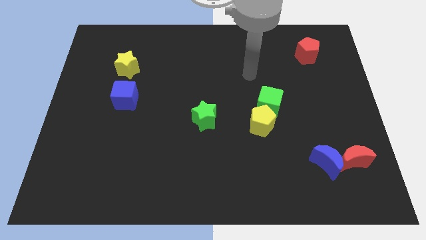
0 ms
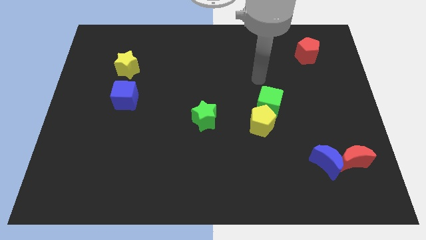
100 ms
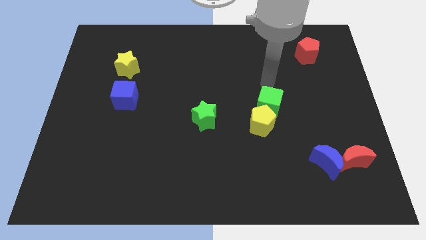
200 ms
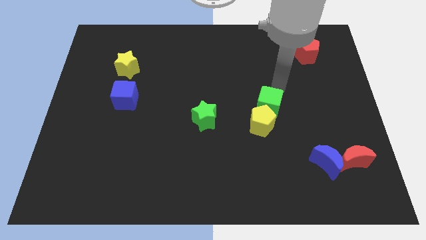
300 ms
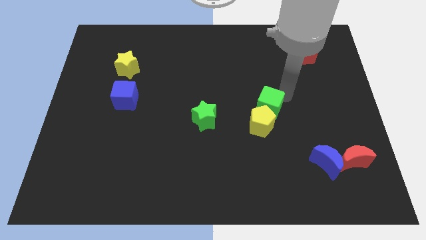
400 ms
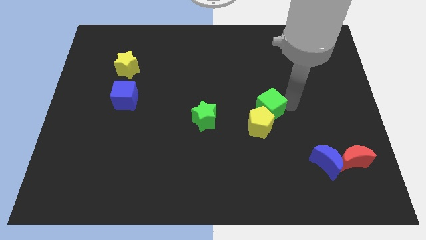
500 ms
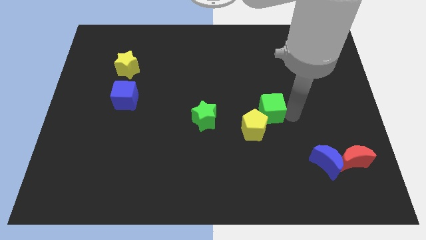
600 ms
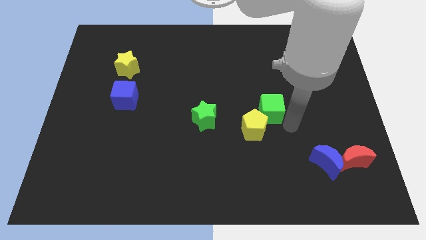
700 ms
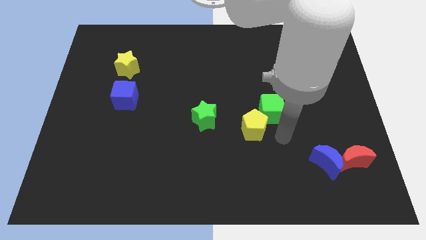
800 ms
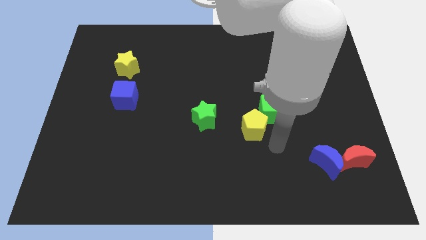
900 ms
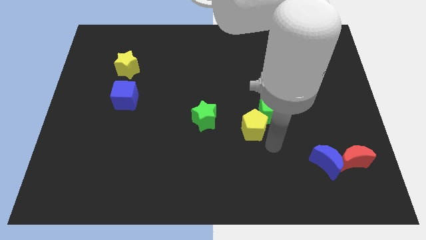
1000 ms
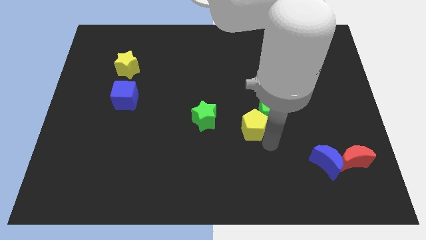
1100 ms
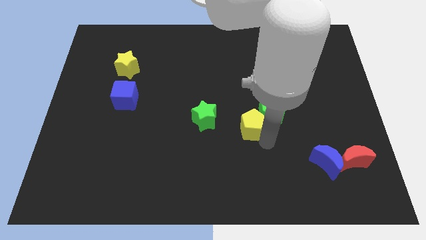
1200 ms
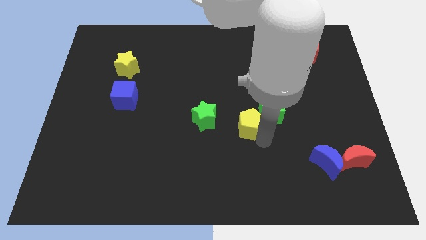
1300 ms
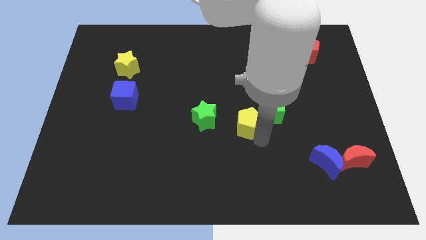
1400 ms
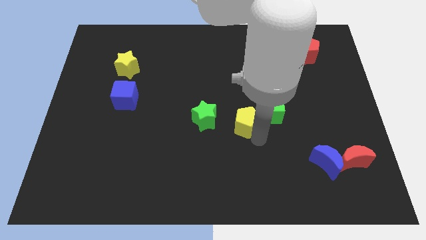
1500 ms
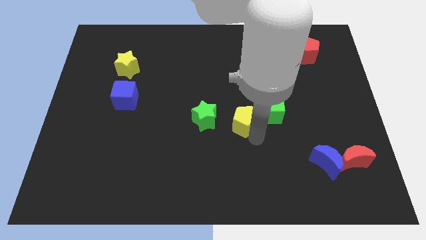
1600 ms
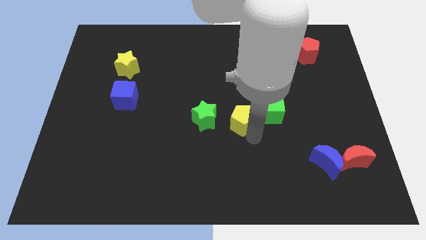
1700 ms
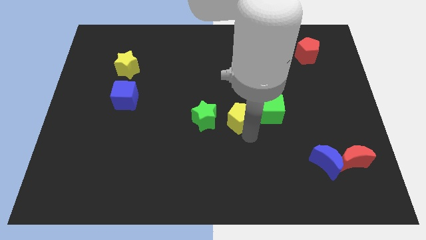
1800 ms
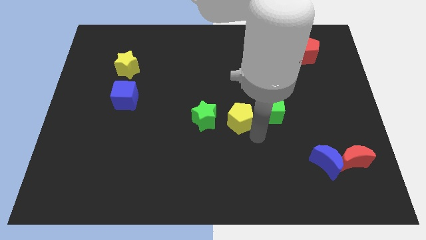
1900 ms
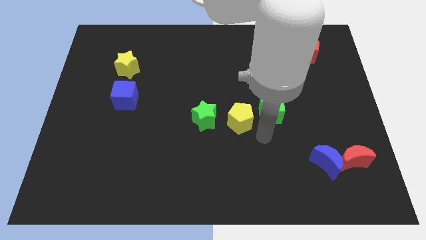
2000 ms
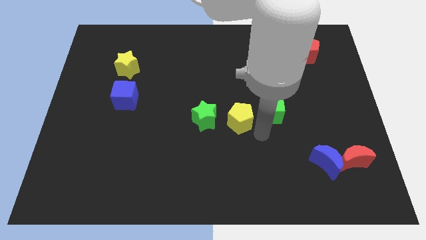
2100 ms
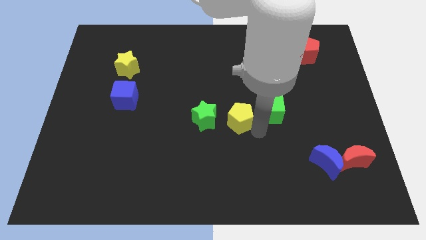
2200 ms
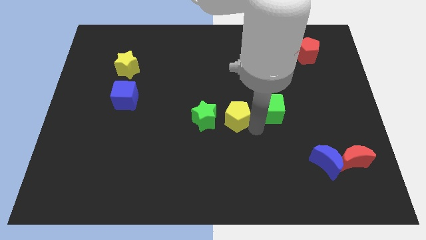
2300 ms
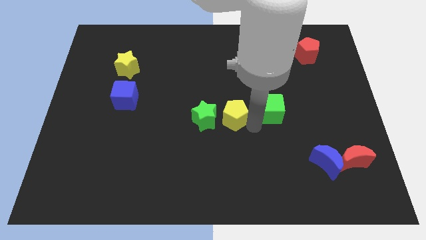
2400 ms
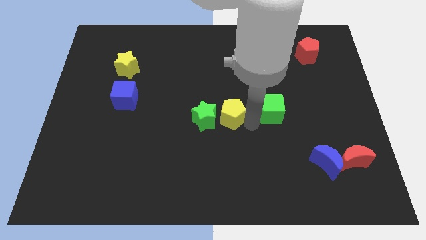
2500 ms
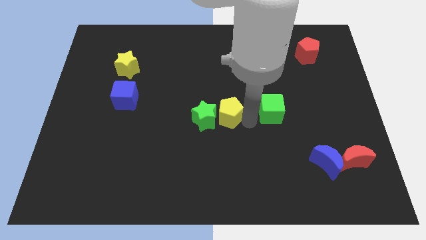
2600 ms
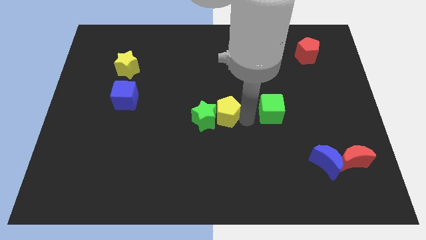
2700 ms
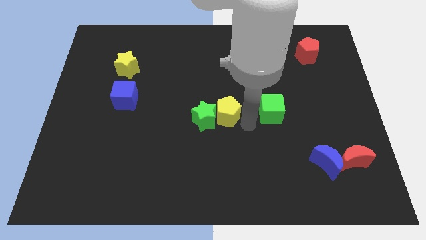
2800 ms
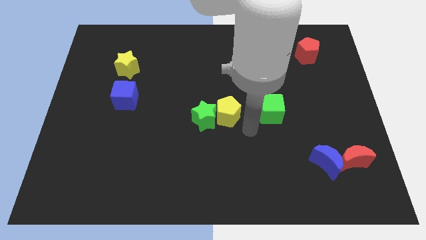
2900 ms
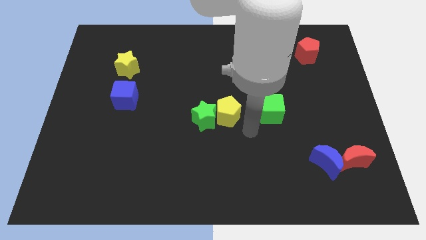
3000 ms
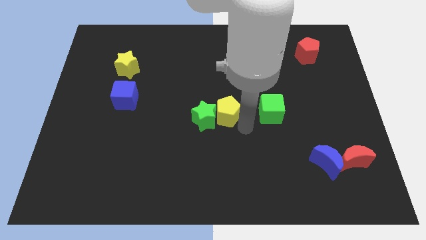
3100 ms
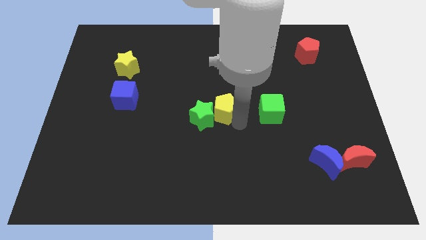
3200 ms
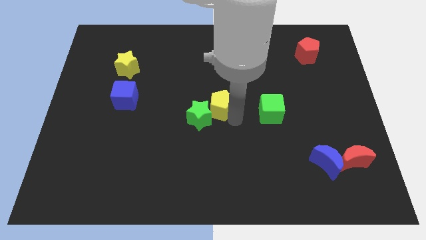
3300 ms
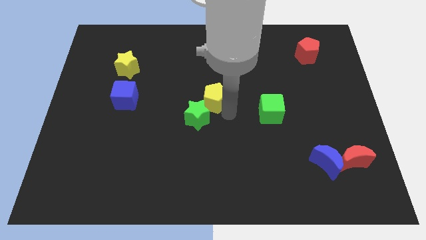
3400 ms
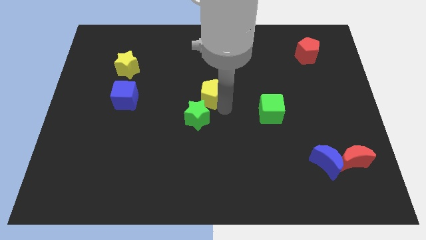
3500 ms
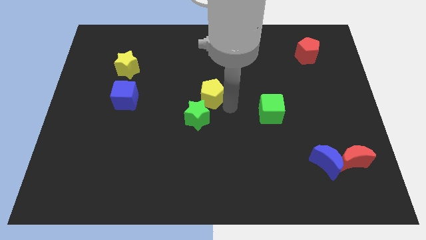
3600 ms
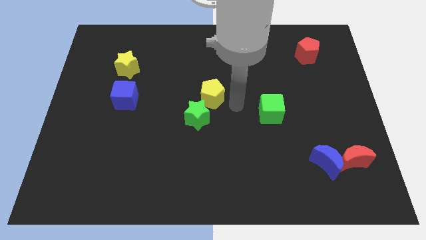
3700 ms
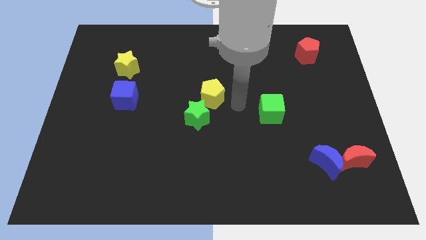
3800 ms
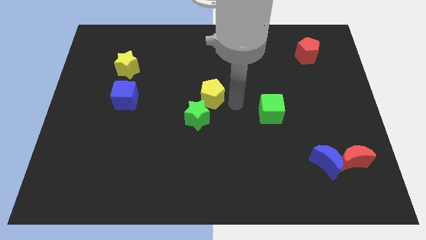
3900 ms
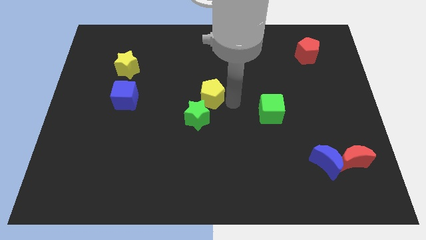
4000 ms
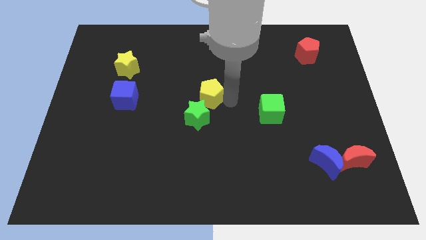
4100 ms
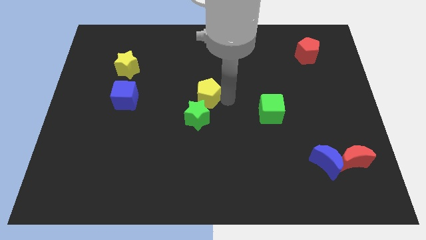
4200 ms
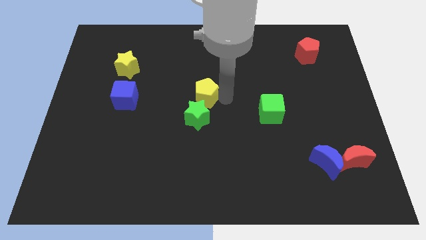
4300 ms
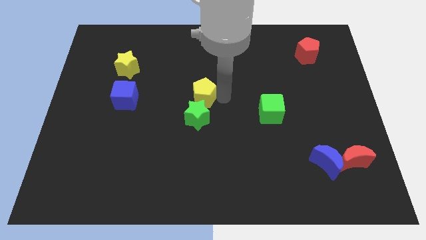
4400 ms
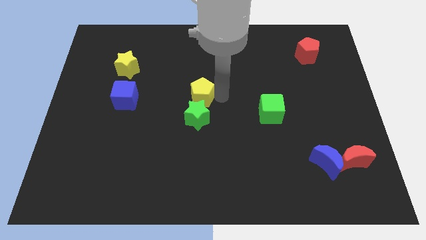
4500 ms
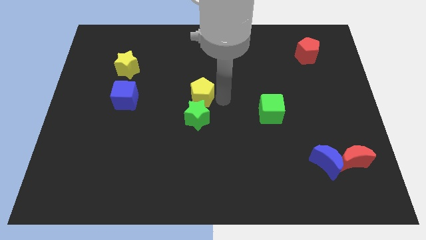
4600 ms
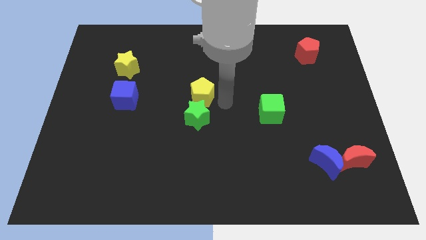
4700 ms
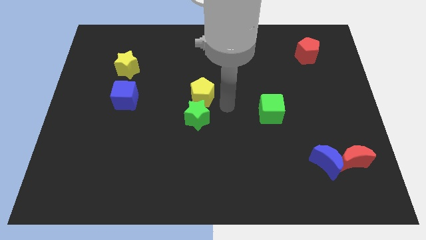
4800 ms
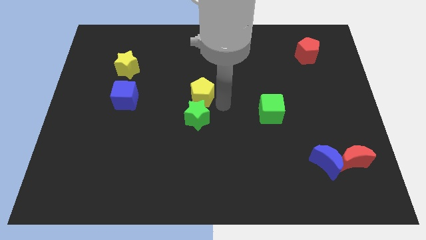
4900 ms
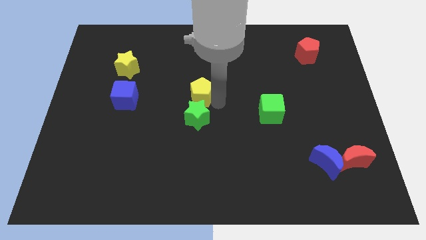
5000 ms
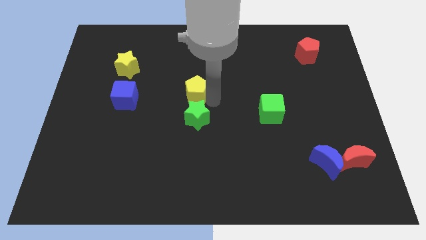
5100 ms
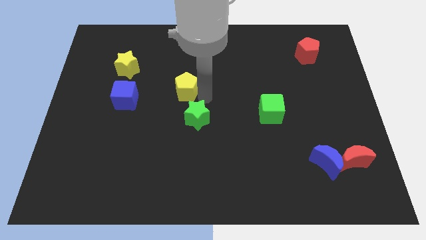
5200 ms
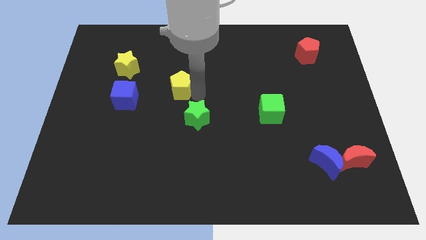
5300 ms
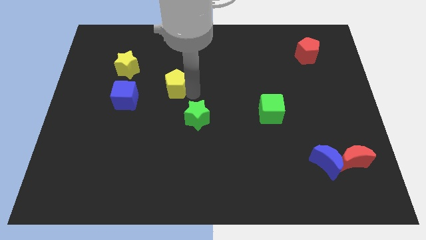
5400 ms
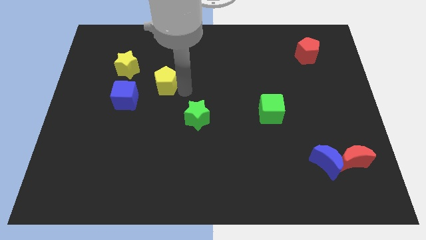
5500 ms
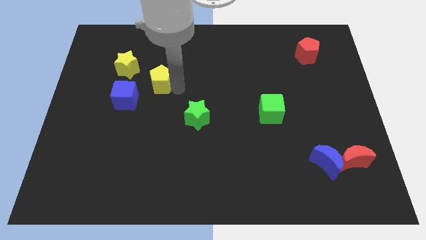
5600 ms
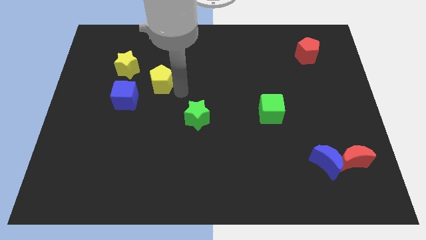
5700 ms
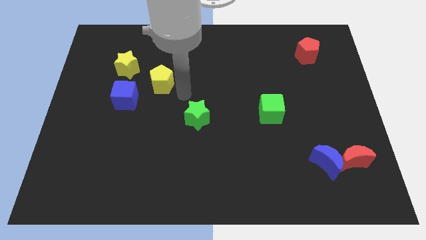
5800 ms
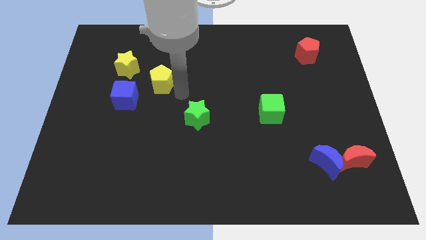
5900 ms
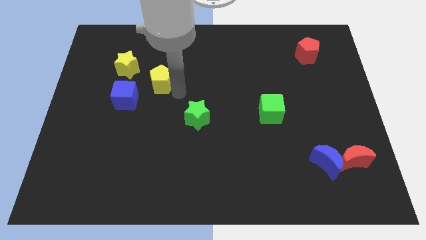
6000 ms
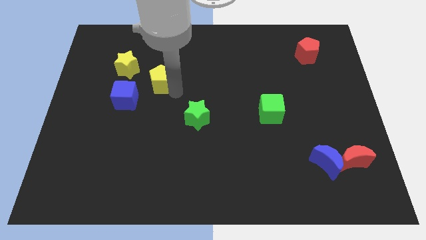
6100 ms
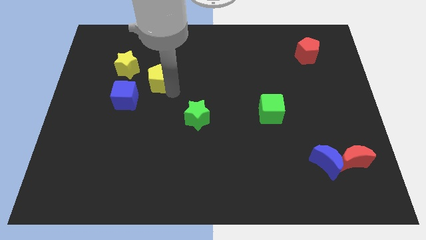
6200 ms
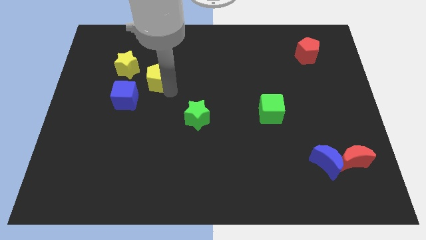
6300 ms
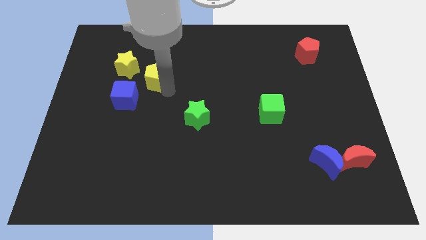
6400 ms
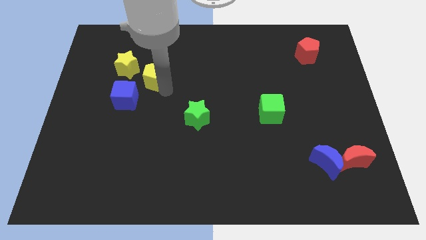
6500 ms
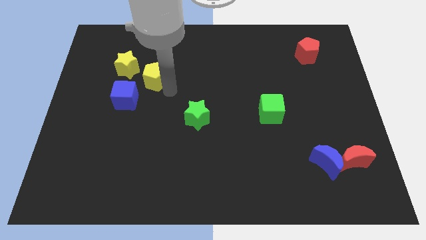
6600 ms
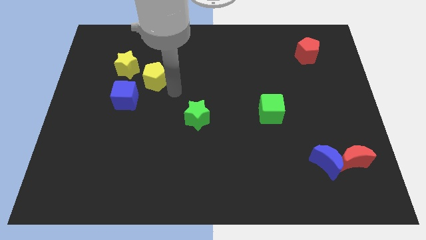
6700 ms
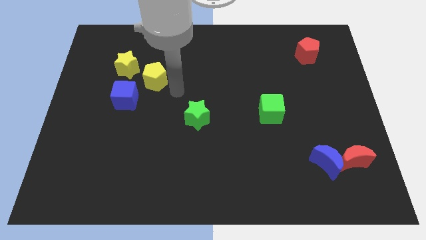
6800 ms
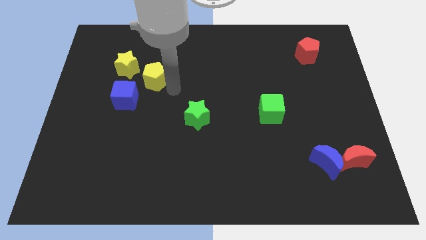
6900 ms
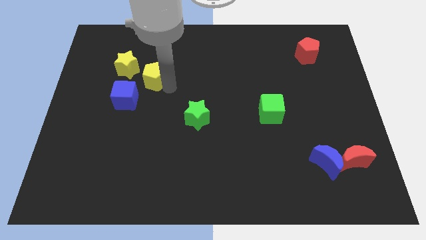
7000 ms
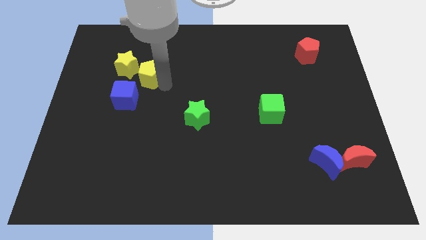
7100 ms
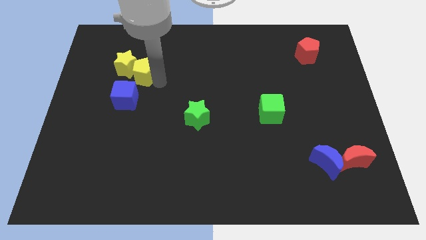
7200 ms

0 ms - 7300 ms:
slide the yellow pentagon towards the yellow star

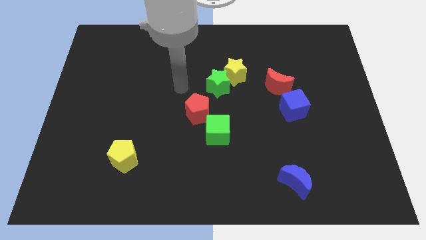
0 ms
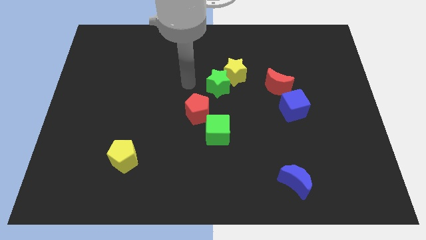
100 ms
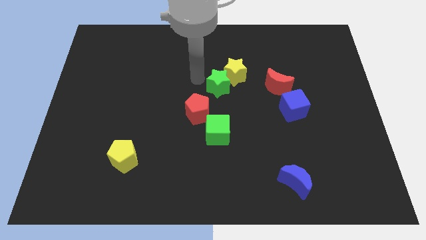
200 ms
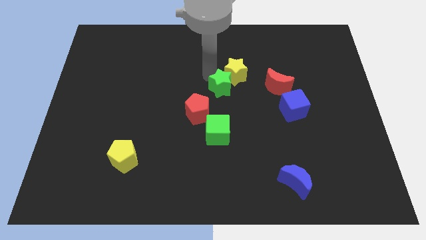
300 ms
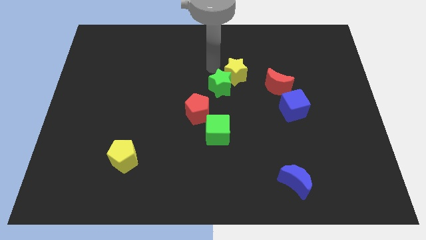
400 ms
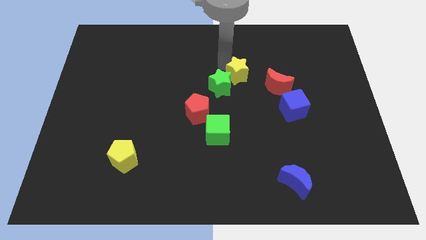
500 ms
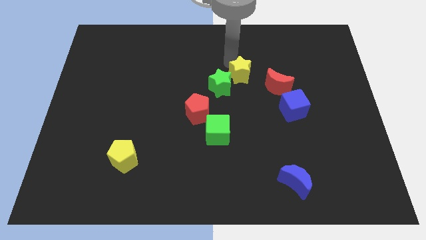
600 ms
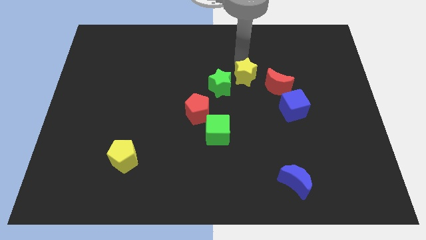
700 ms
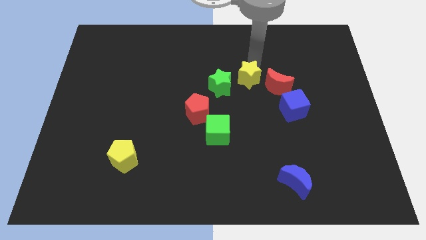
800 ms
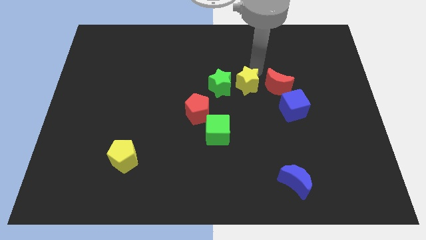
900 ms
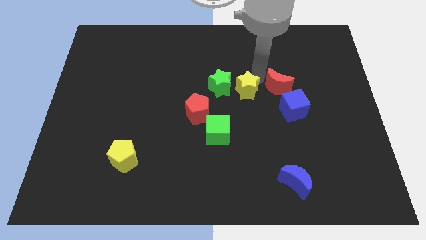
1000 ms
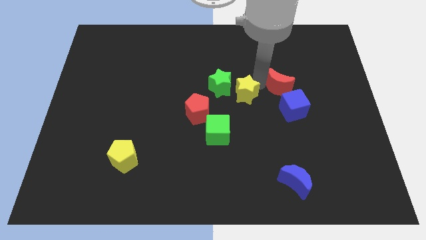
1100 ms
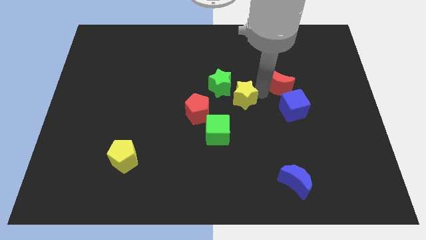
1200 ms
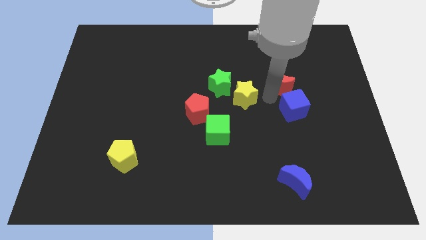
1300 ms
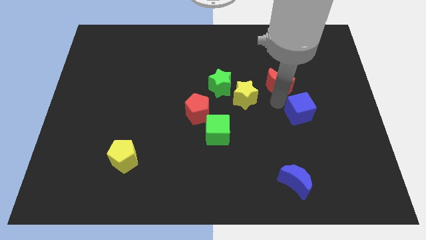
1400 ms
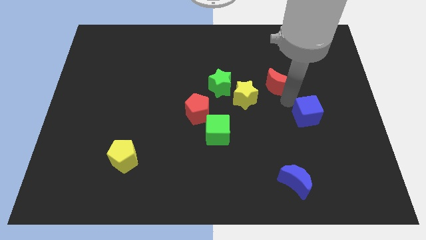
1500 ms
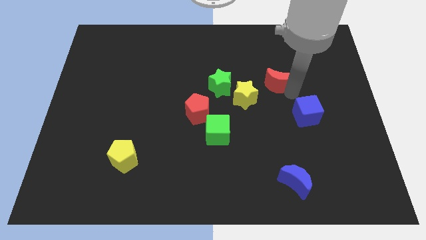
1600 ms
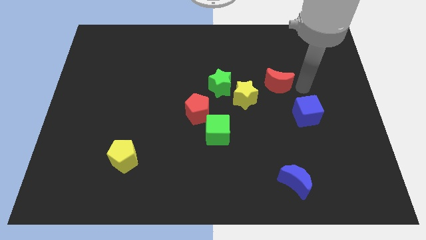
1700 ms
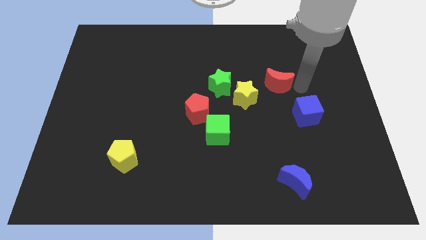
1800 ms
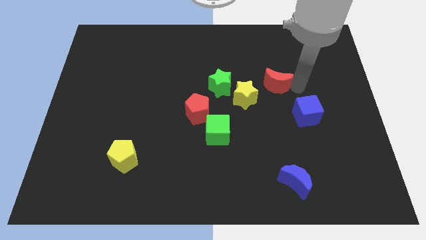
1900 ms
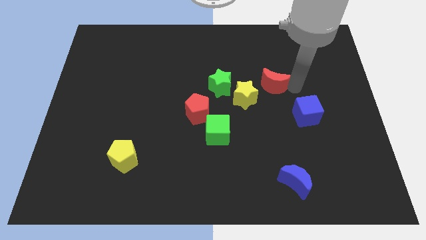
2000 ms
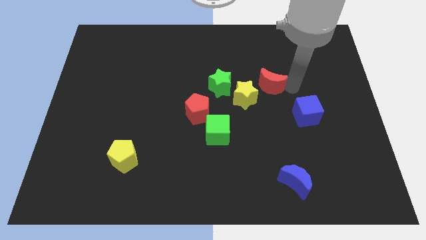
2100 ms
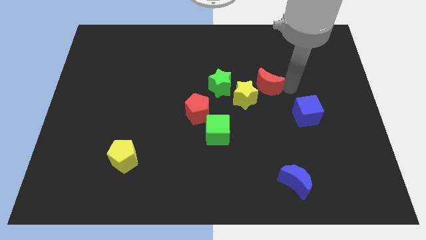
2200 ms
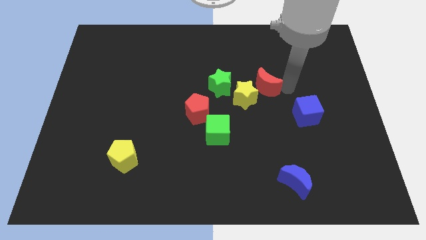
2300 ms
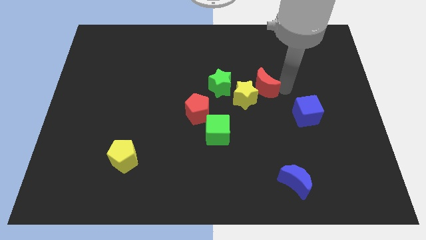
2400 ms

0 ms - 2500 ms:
slide the red moon next to the yellow star
